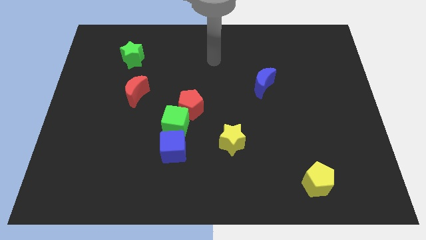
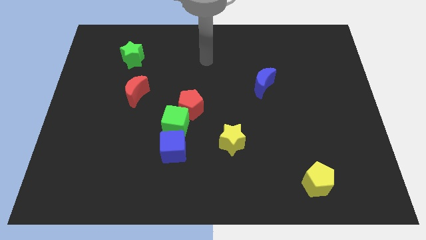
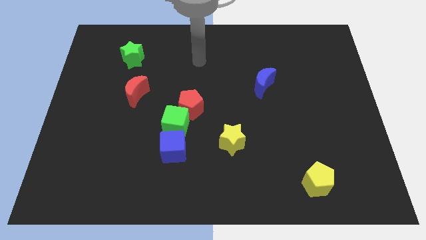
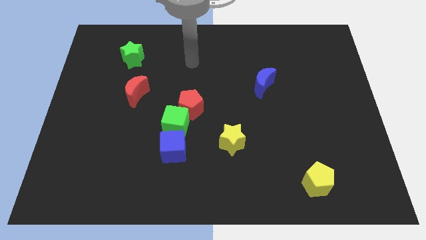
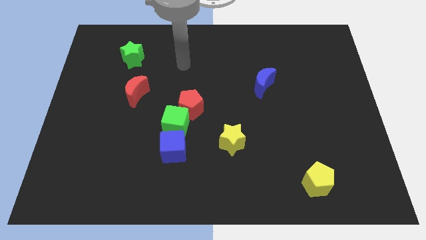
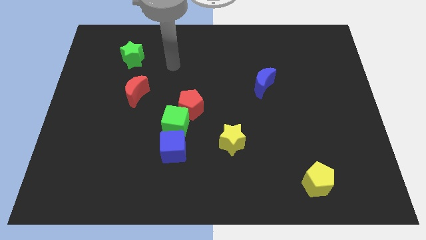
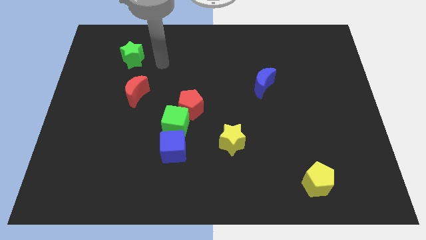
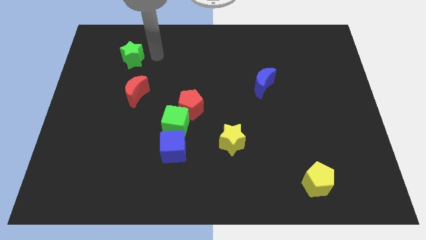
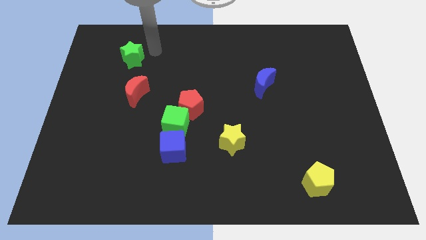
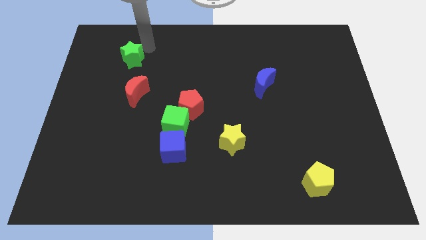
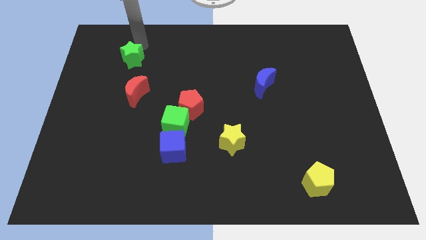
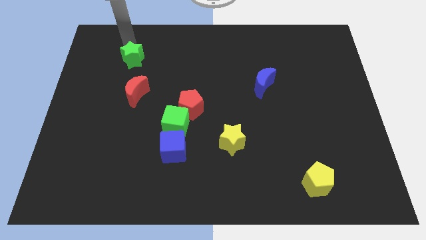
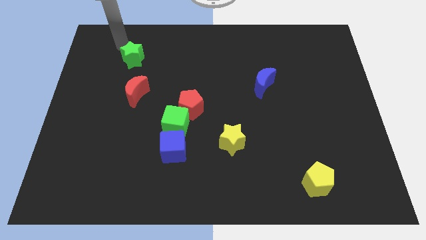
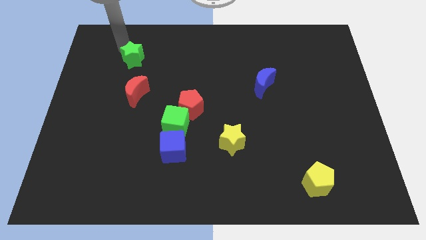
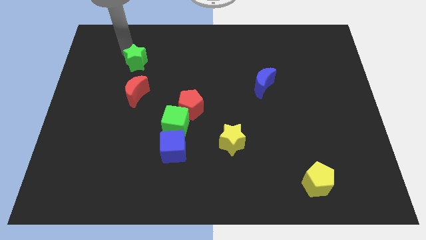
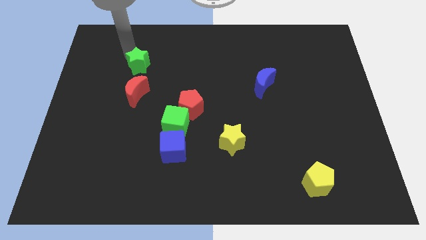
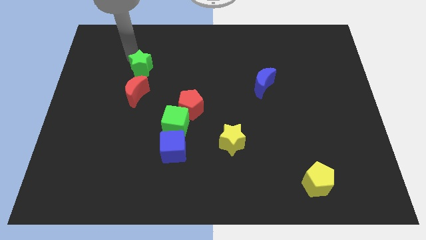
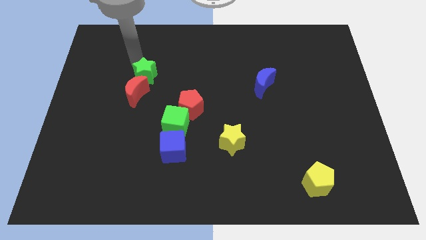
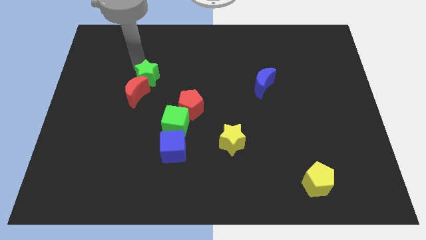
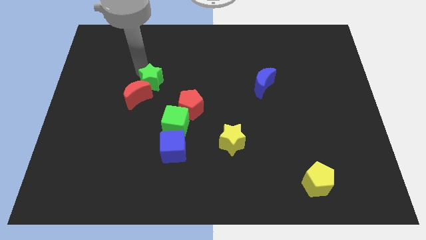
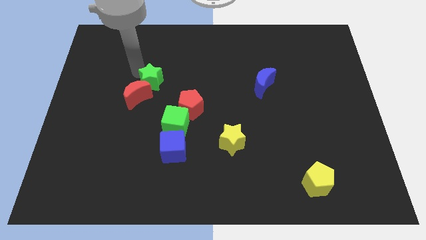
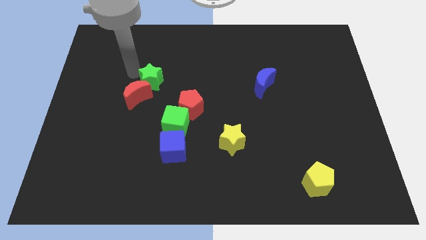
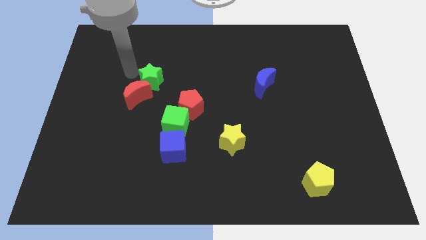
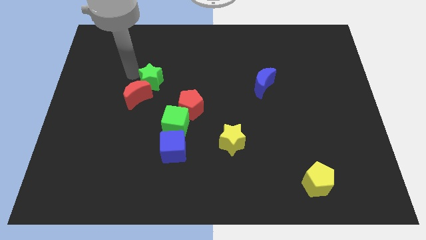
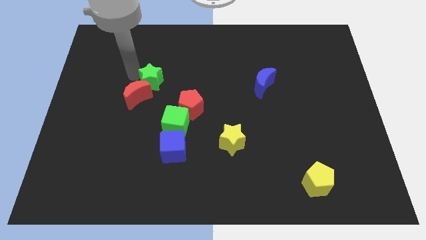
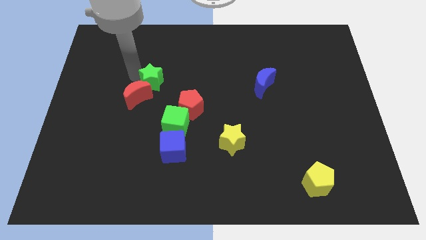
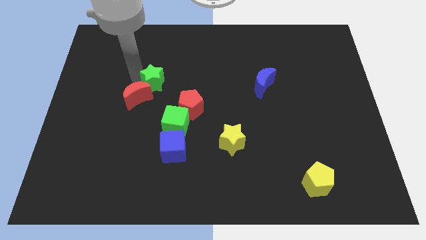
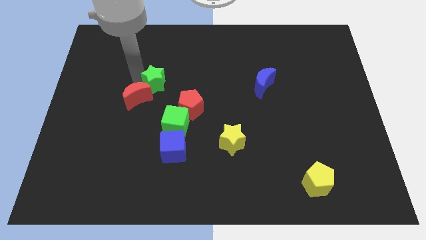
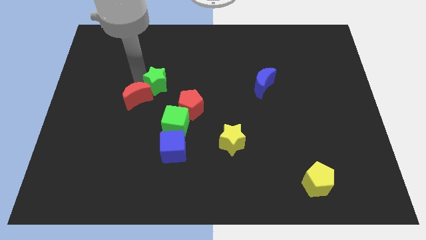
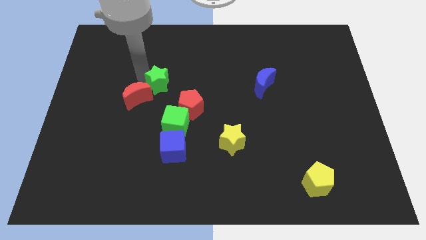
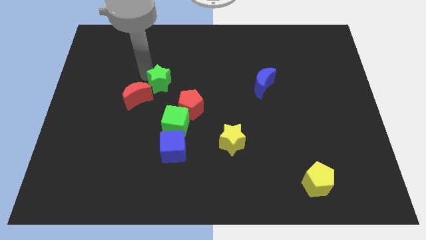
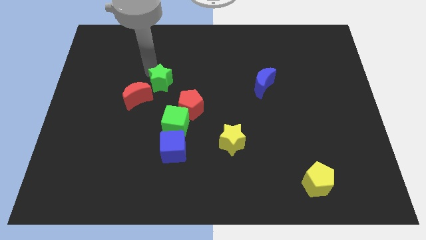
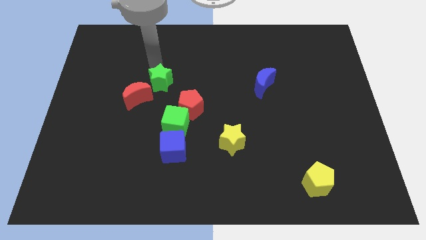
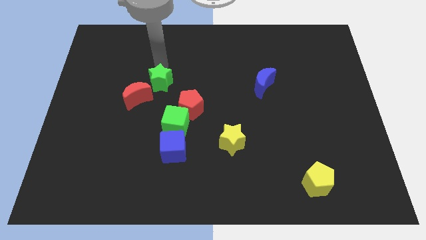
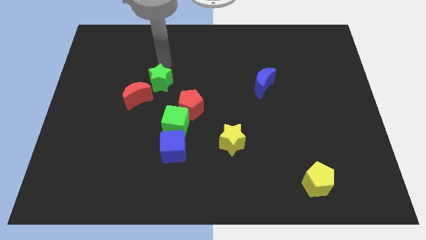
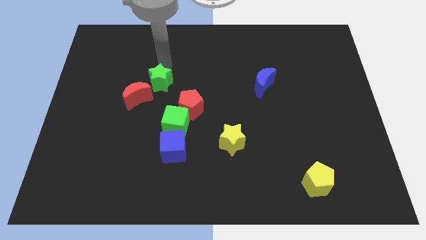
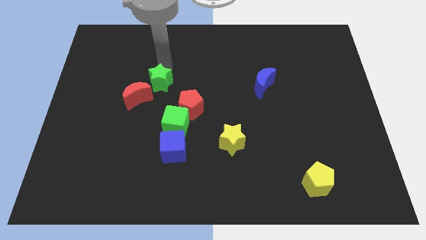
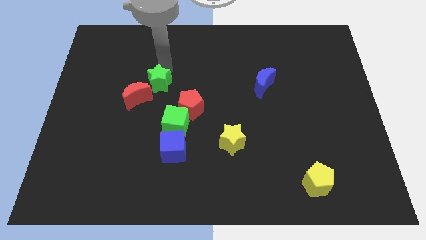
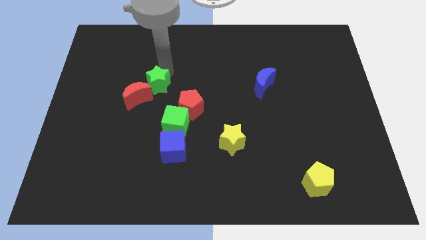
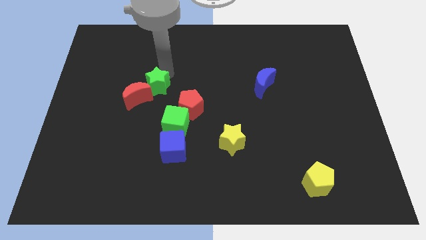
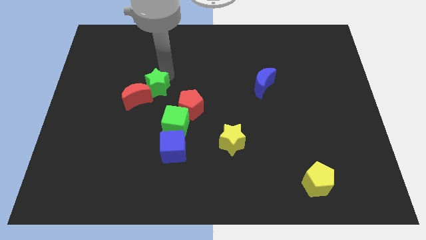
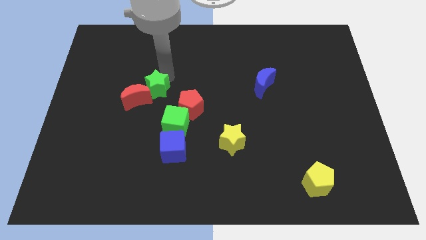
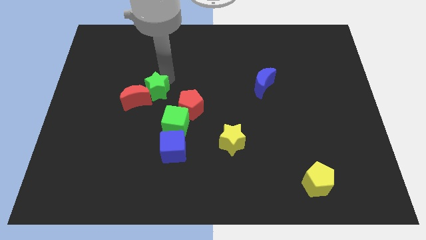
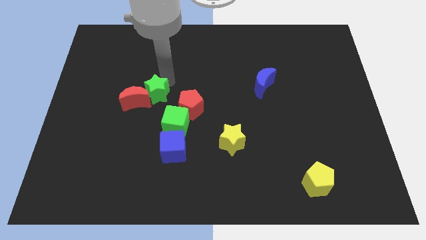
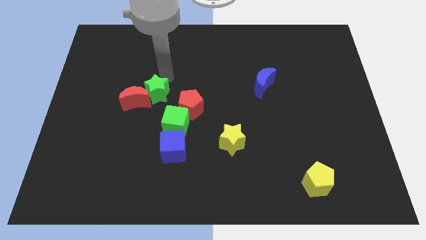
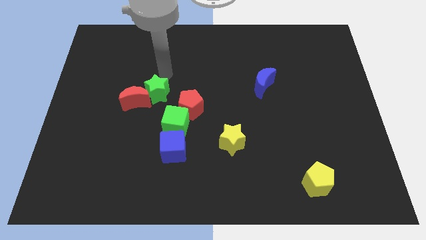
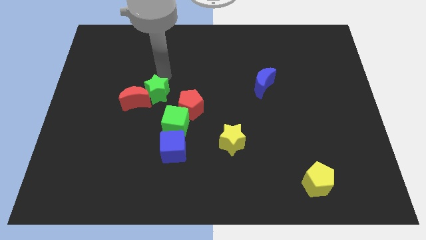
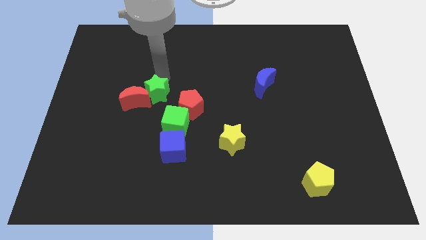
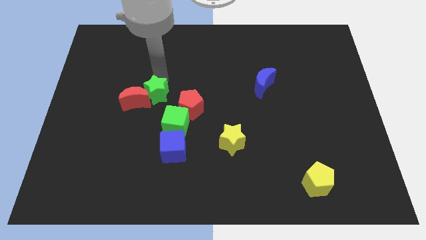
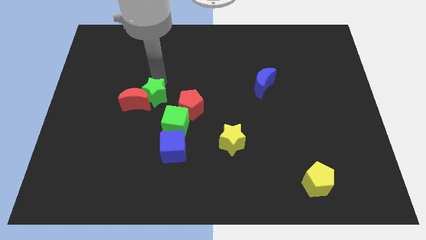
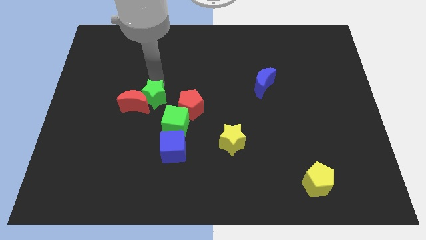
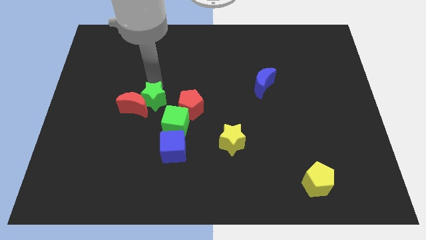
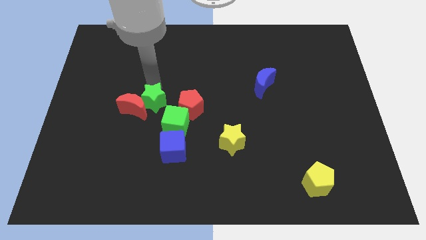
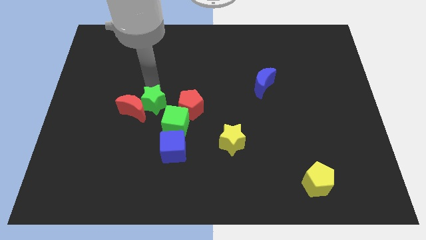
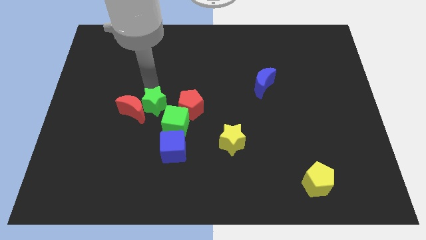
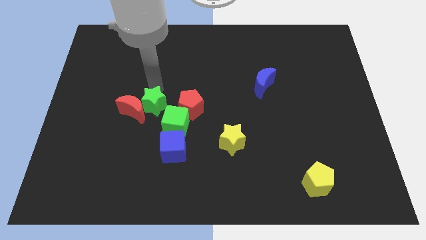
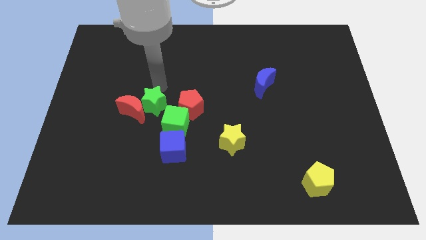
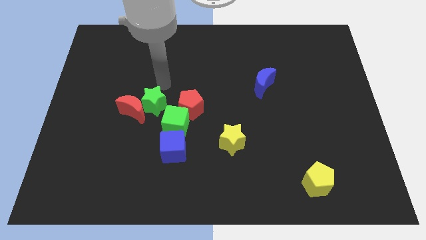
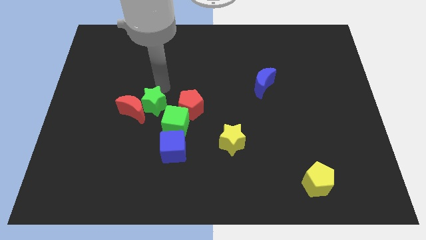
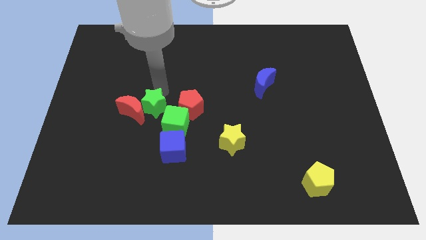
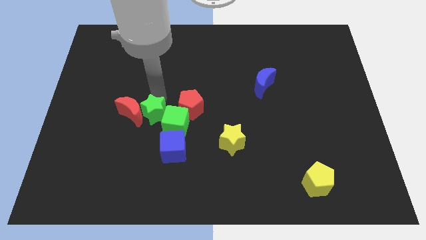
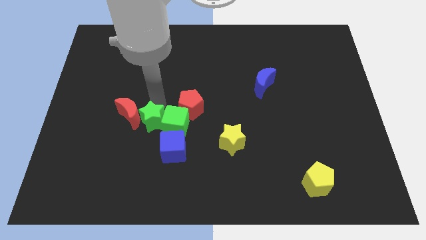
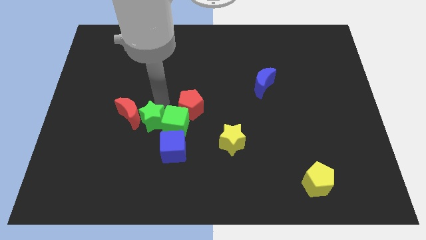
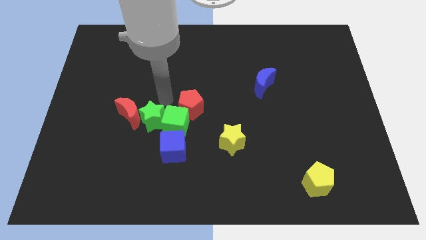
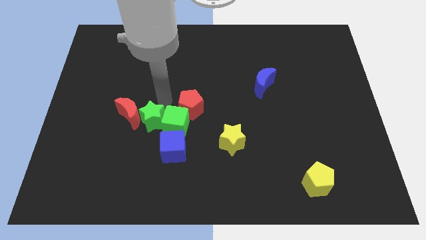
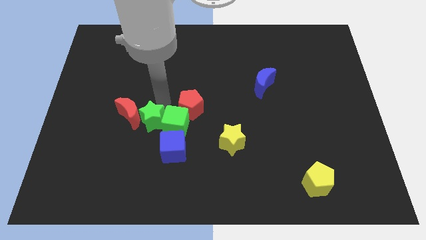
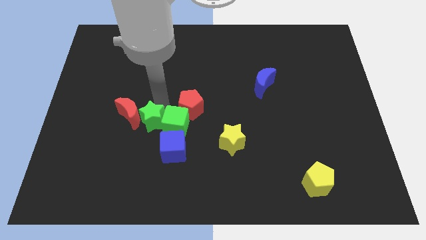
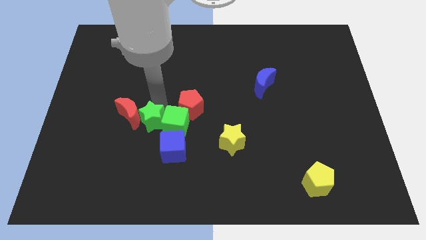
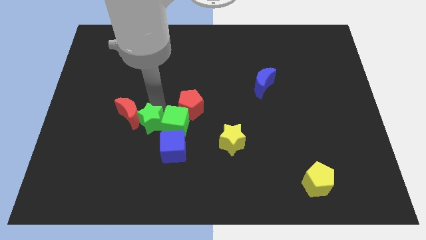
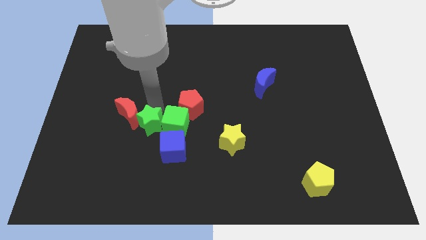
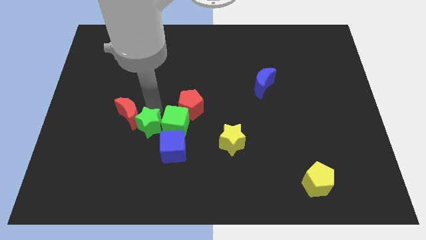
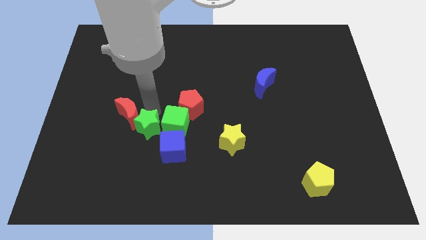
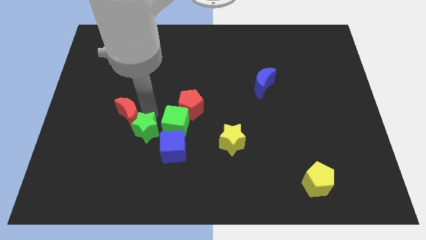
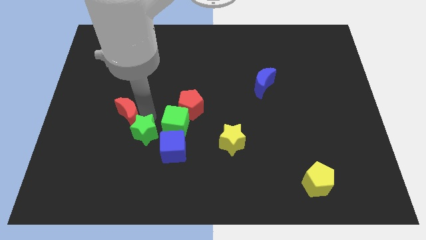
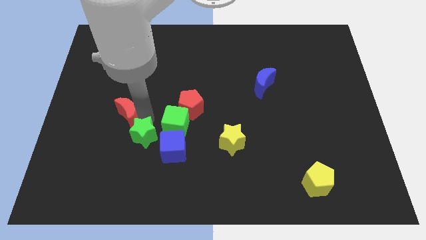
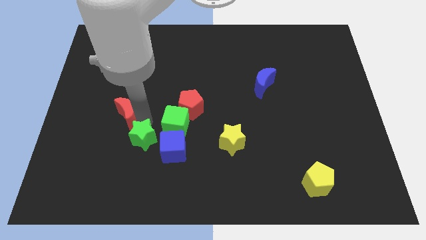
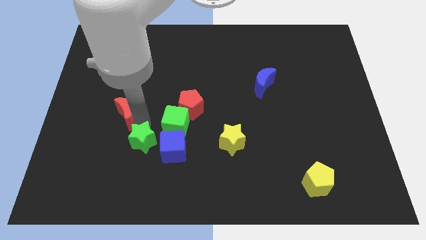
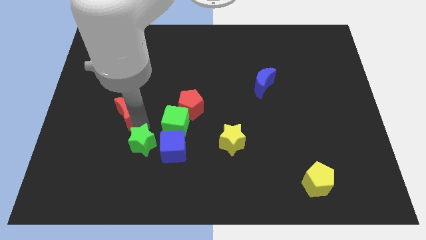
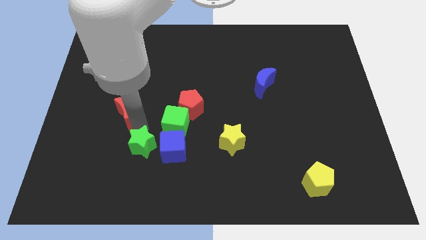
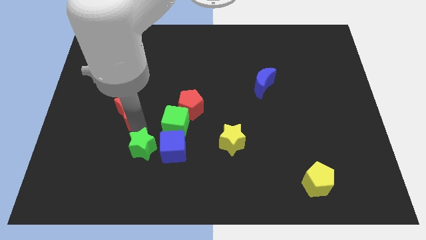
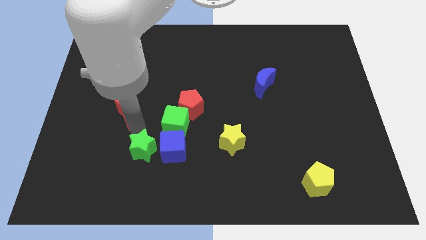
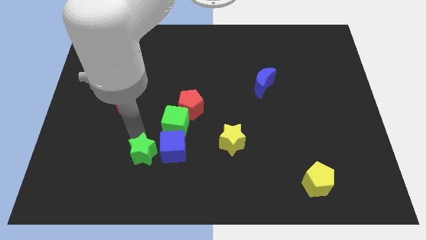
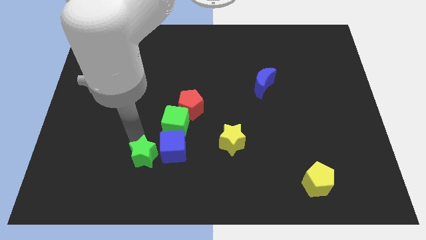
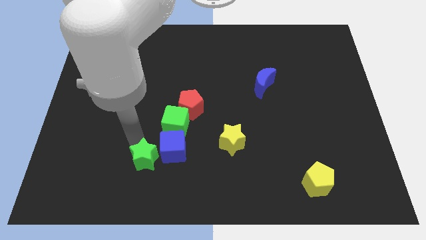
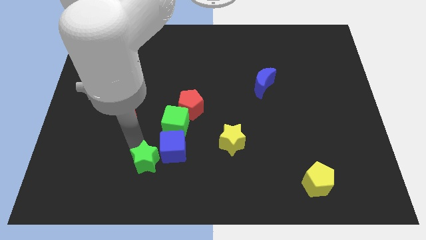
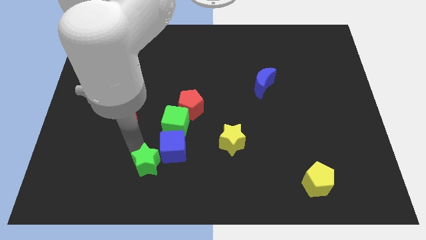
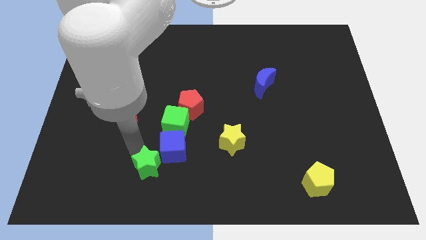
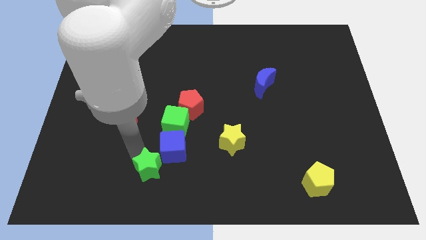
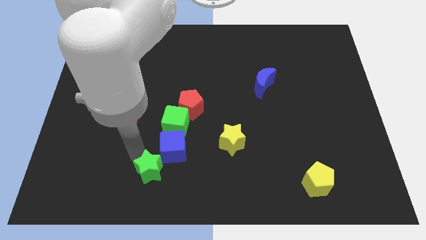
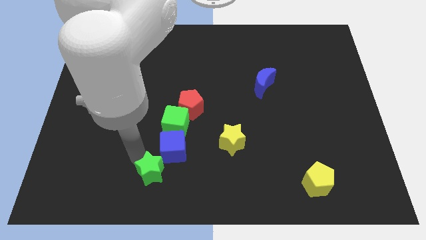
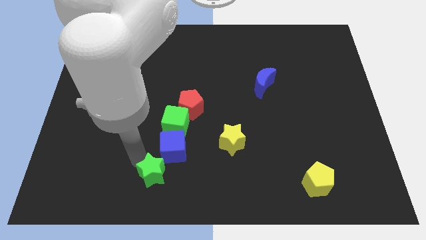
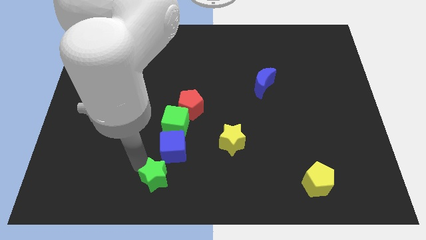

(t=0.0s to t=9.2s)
push the green star to the bottom side
